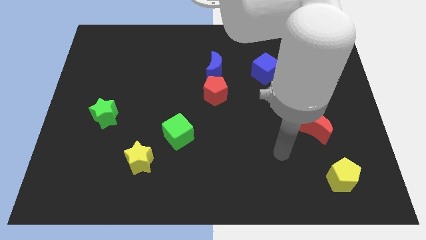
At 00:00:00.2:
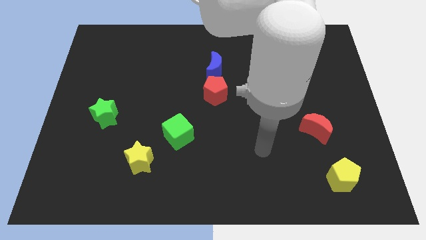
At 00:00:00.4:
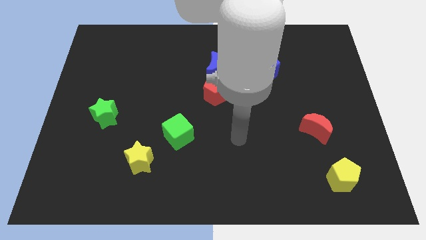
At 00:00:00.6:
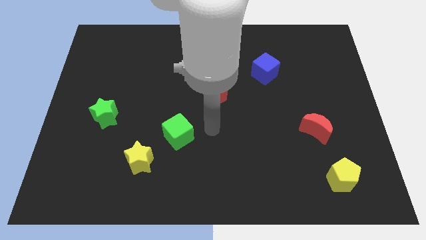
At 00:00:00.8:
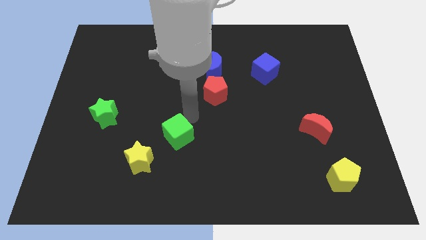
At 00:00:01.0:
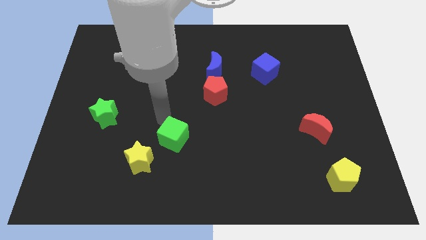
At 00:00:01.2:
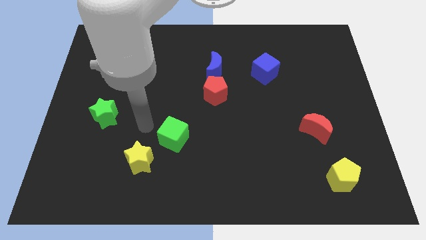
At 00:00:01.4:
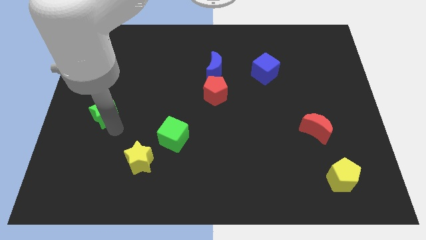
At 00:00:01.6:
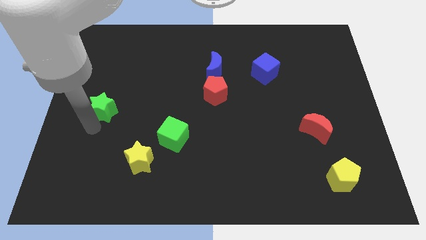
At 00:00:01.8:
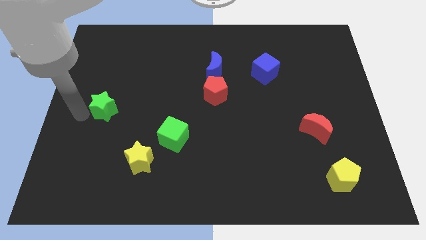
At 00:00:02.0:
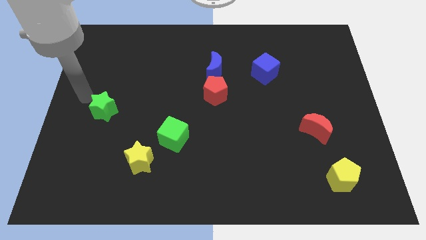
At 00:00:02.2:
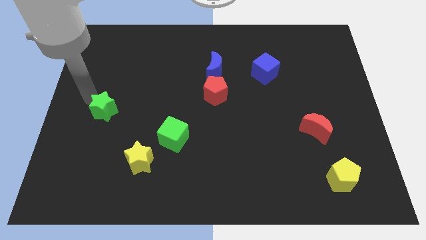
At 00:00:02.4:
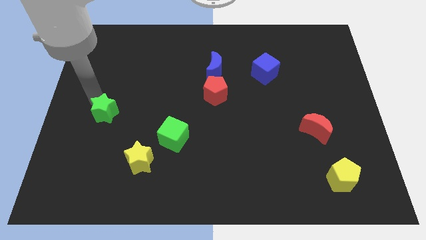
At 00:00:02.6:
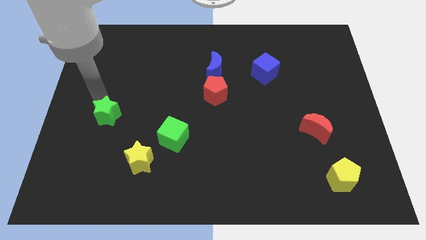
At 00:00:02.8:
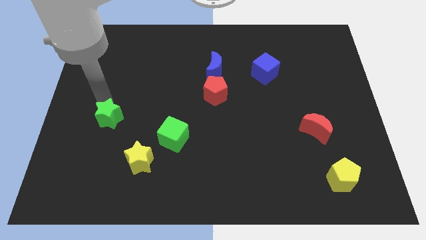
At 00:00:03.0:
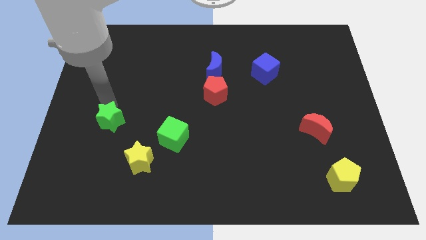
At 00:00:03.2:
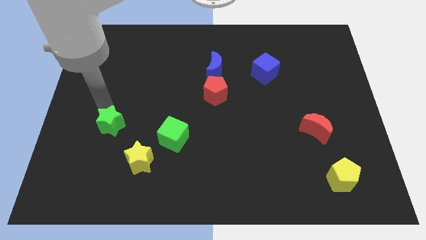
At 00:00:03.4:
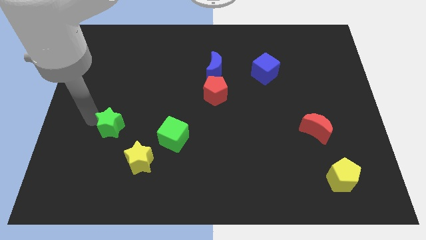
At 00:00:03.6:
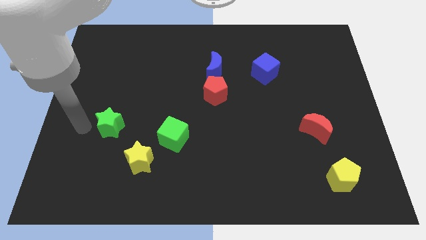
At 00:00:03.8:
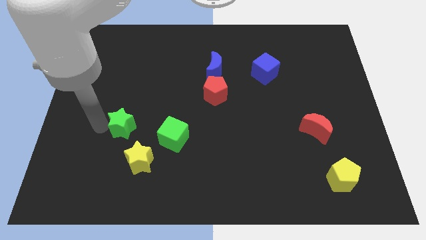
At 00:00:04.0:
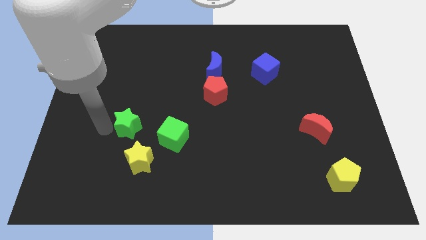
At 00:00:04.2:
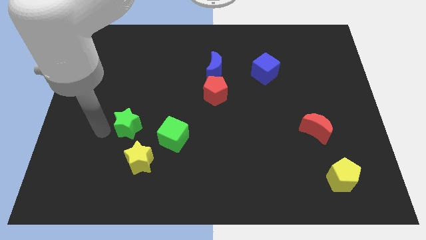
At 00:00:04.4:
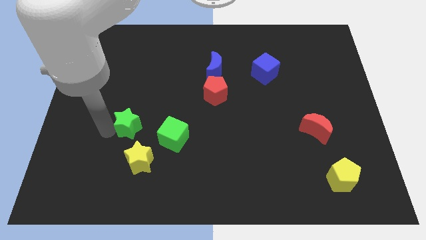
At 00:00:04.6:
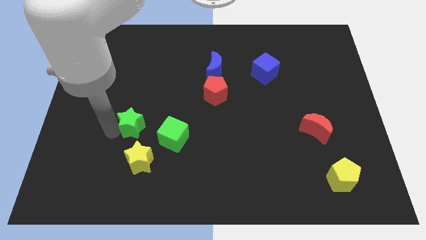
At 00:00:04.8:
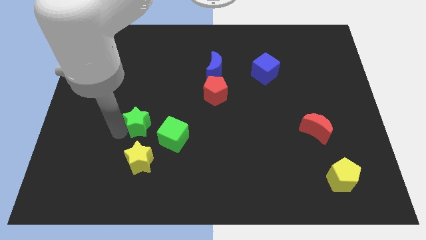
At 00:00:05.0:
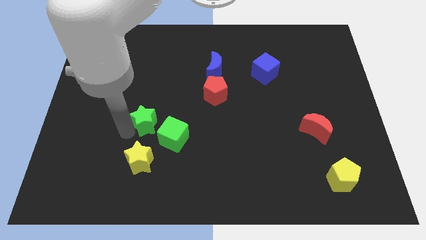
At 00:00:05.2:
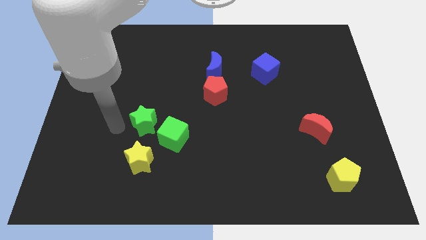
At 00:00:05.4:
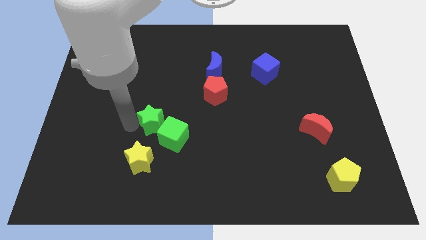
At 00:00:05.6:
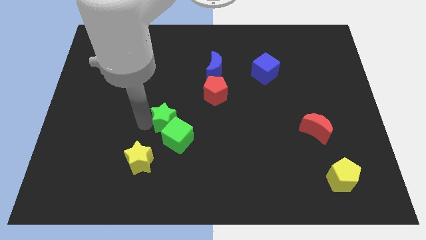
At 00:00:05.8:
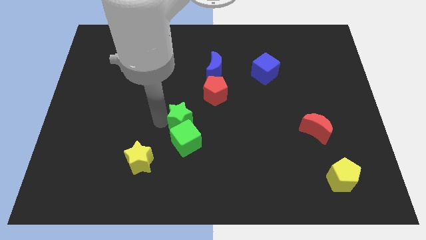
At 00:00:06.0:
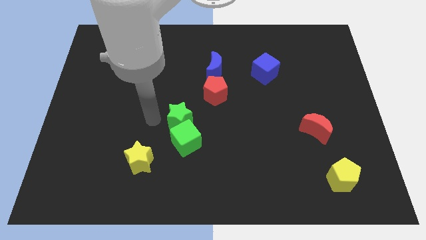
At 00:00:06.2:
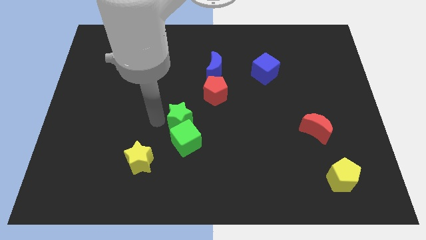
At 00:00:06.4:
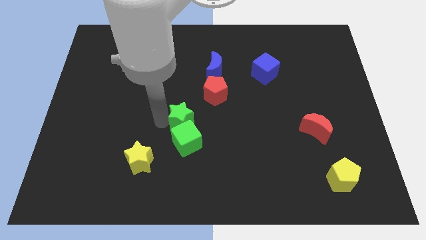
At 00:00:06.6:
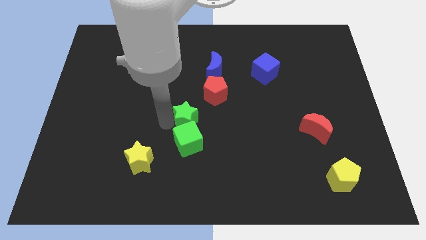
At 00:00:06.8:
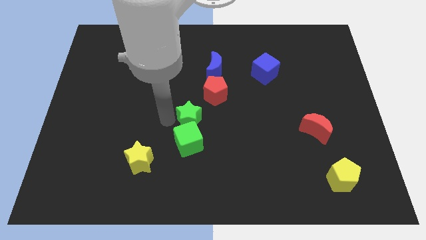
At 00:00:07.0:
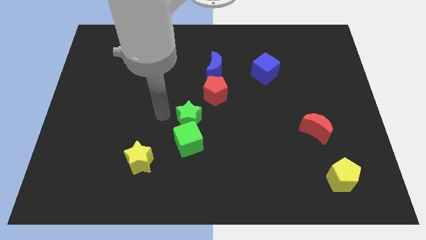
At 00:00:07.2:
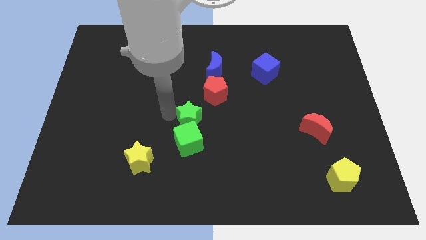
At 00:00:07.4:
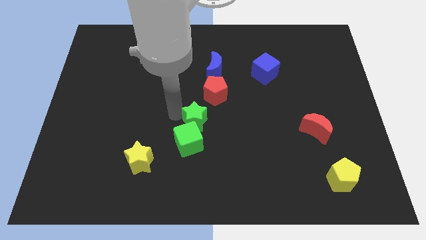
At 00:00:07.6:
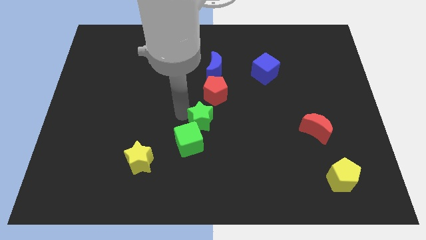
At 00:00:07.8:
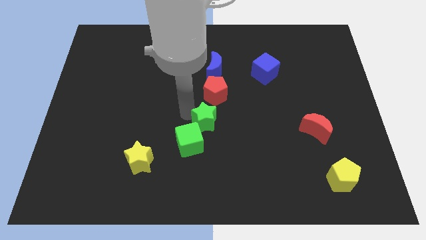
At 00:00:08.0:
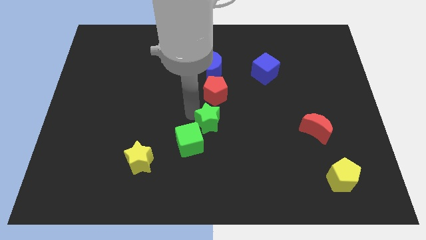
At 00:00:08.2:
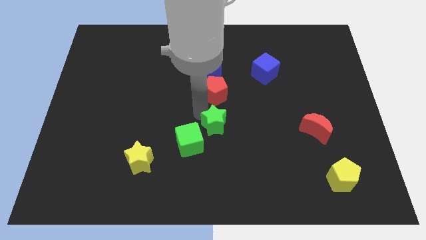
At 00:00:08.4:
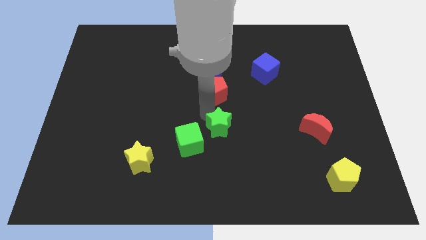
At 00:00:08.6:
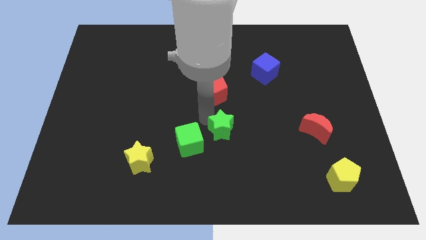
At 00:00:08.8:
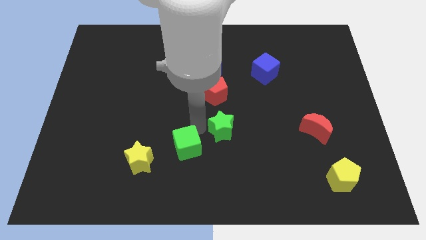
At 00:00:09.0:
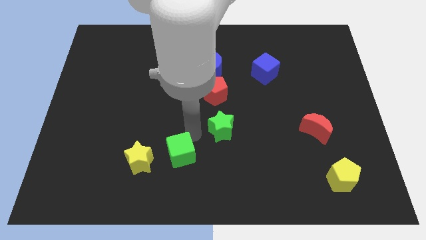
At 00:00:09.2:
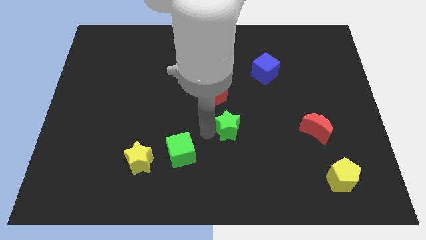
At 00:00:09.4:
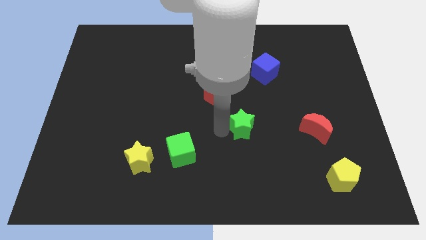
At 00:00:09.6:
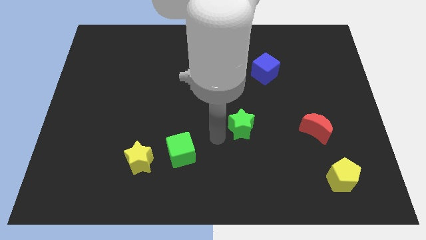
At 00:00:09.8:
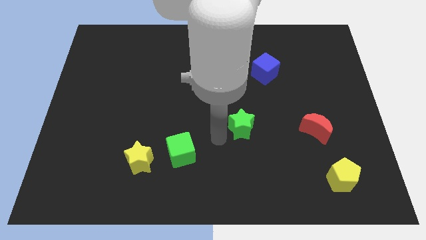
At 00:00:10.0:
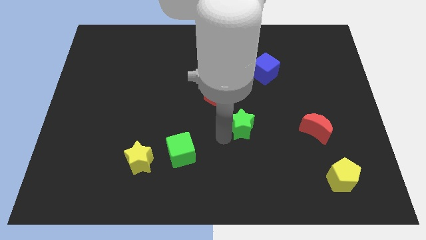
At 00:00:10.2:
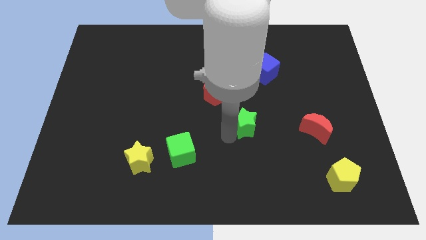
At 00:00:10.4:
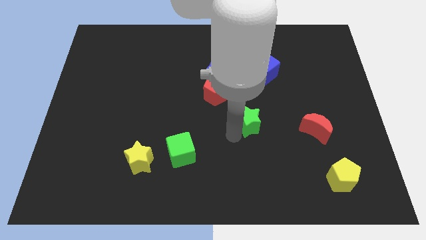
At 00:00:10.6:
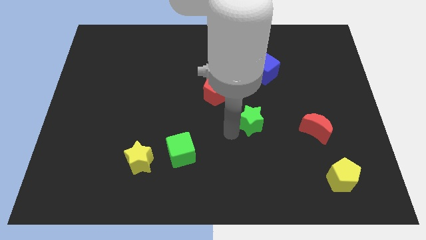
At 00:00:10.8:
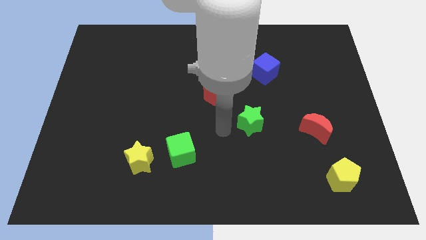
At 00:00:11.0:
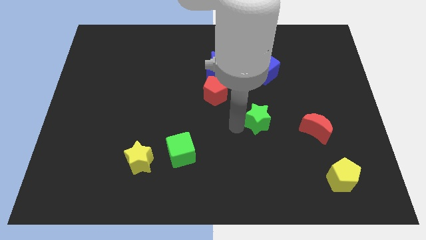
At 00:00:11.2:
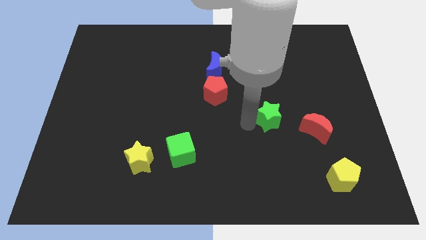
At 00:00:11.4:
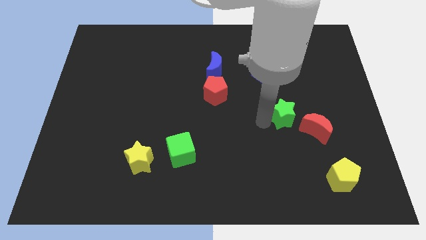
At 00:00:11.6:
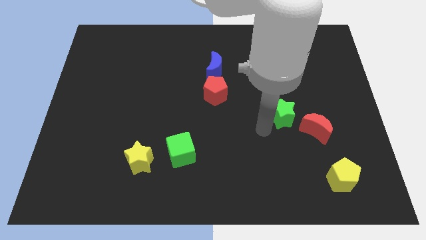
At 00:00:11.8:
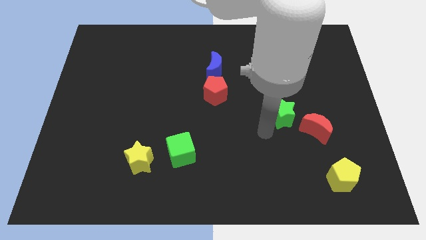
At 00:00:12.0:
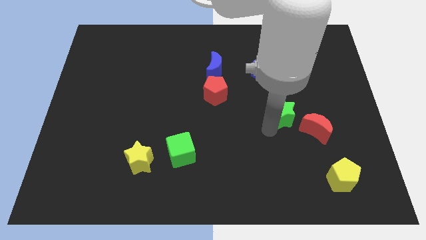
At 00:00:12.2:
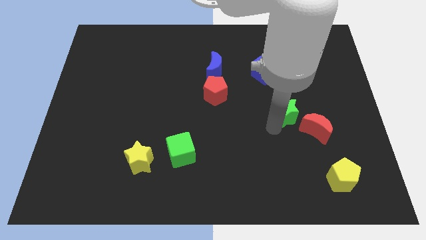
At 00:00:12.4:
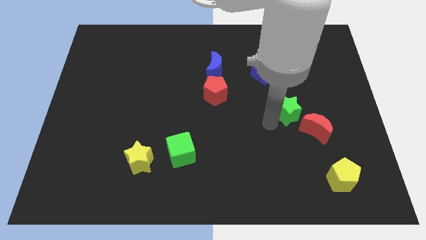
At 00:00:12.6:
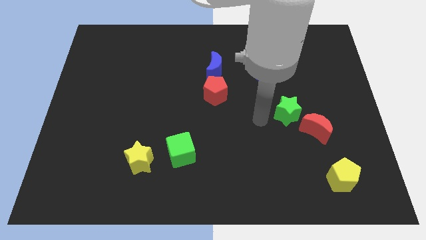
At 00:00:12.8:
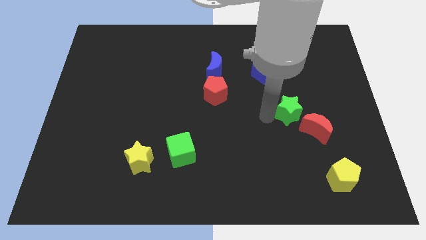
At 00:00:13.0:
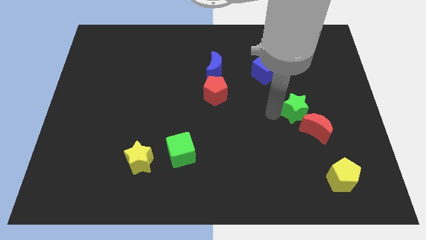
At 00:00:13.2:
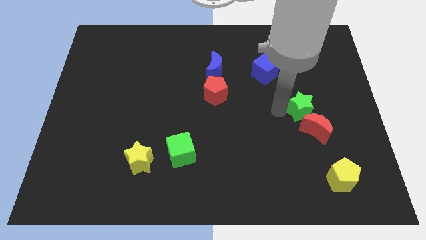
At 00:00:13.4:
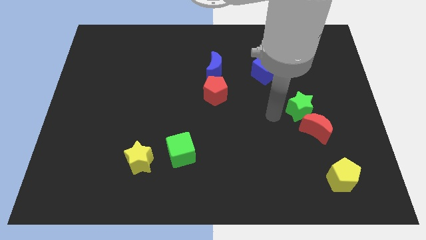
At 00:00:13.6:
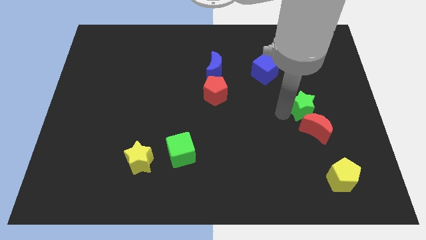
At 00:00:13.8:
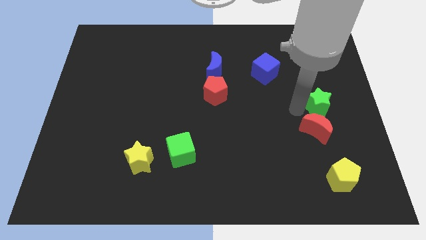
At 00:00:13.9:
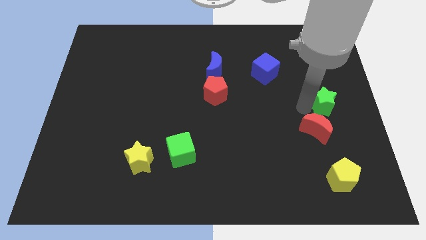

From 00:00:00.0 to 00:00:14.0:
slide the green star to the right side of the board
